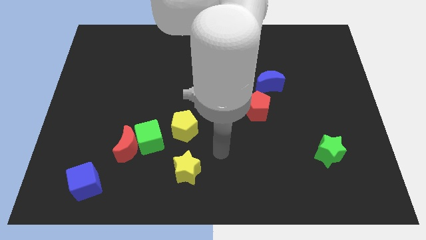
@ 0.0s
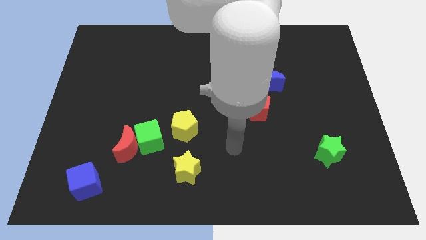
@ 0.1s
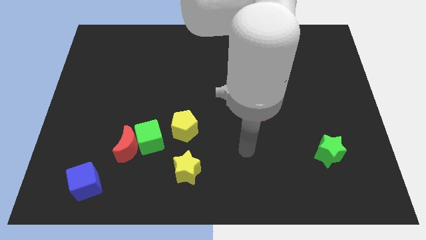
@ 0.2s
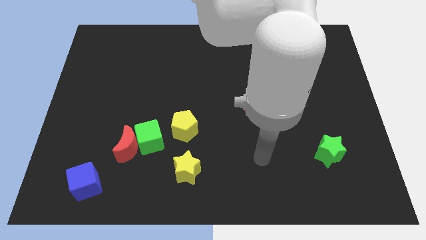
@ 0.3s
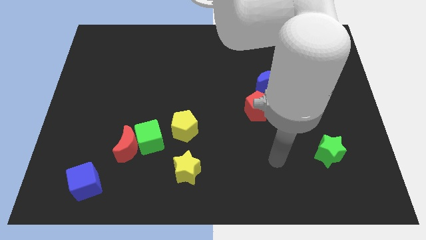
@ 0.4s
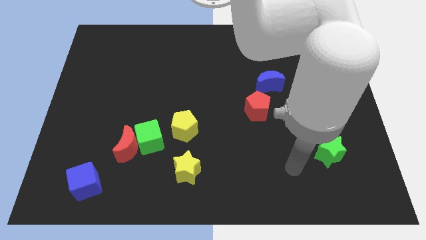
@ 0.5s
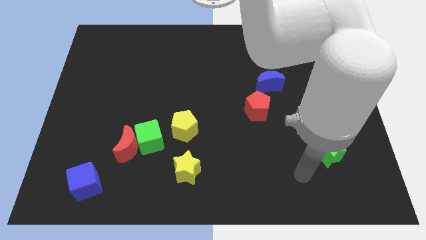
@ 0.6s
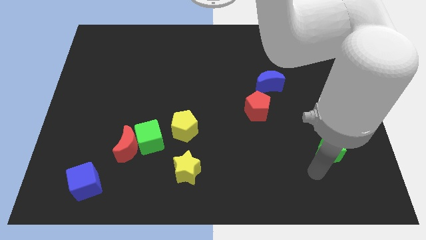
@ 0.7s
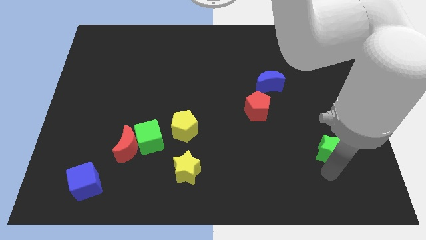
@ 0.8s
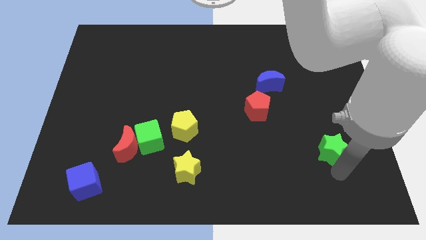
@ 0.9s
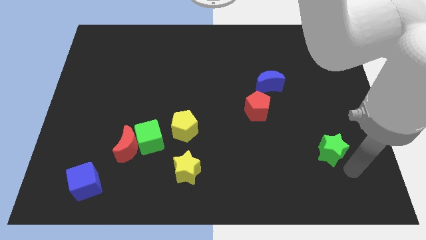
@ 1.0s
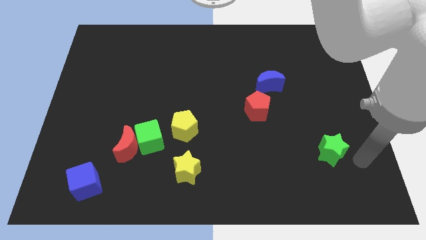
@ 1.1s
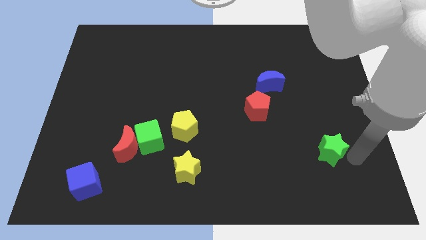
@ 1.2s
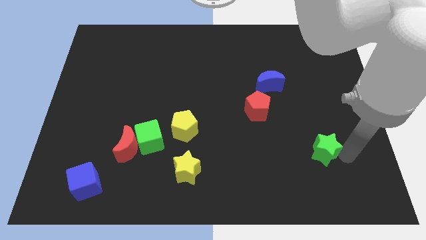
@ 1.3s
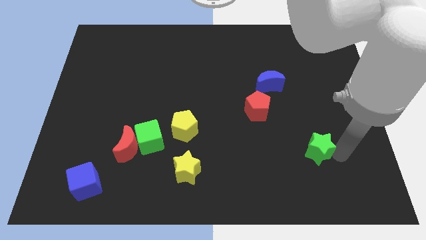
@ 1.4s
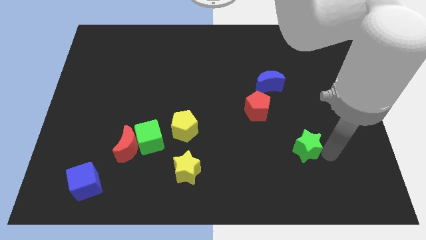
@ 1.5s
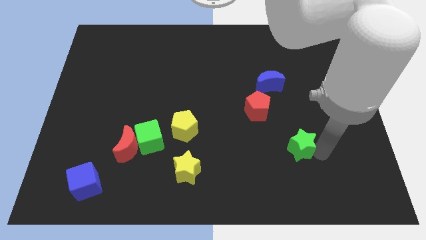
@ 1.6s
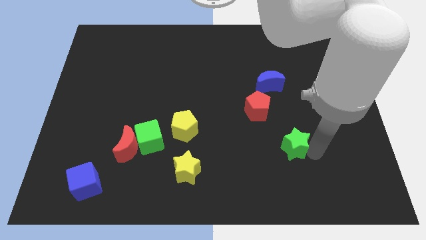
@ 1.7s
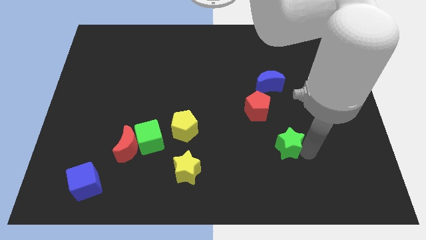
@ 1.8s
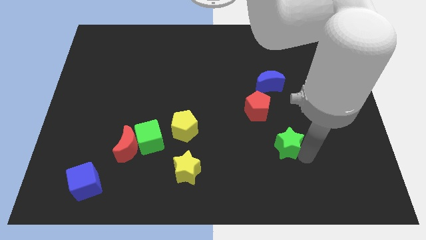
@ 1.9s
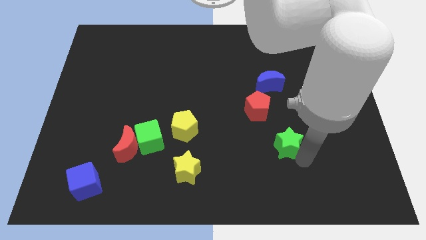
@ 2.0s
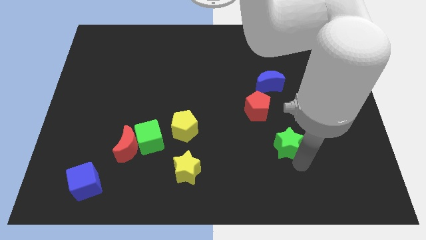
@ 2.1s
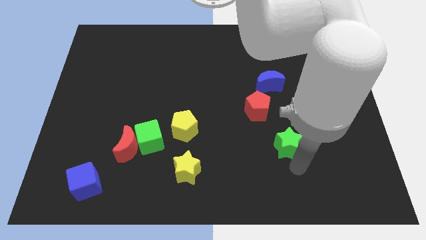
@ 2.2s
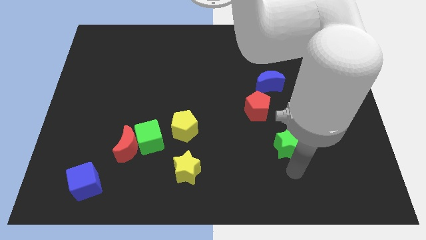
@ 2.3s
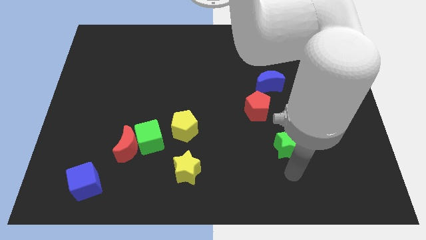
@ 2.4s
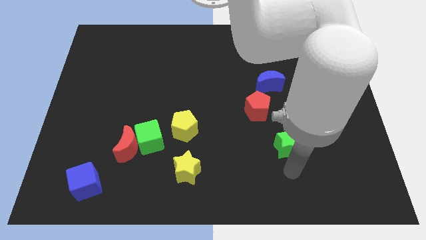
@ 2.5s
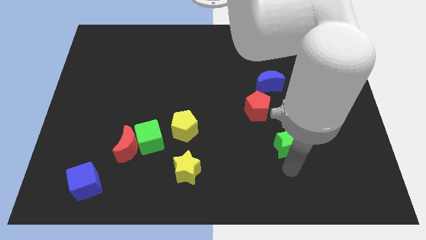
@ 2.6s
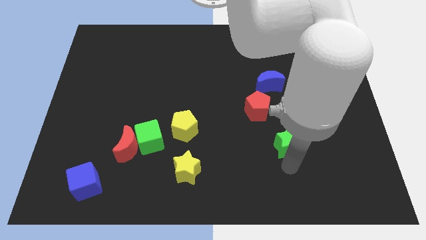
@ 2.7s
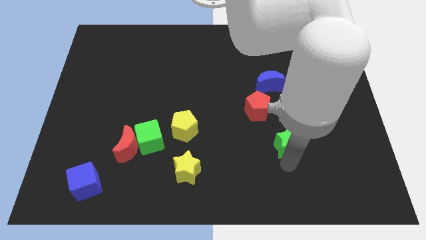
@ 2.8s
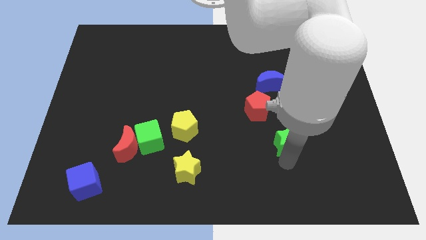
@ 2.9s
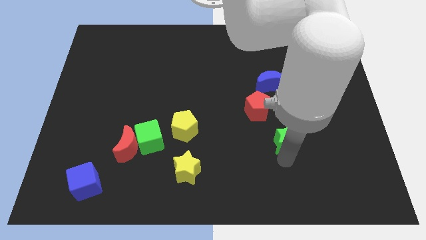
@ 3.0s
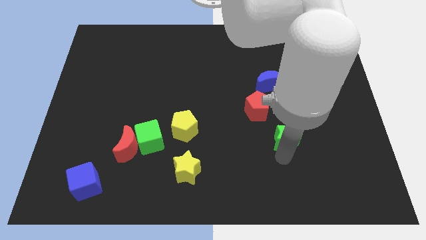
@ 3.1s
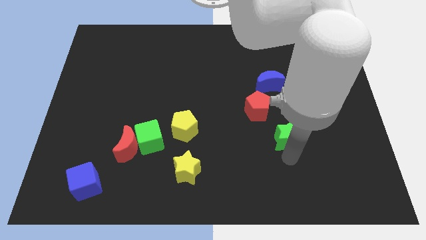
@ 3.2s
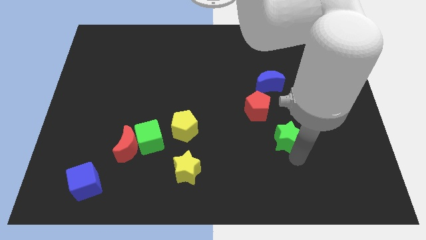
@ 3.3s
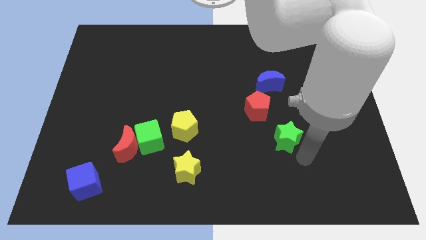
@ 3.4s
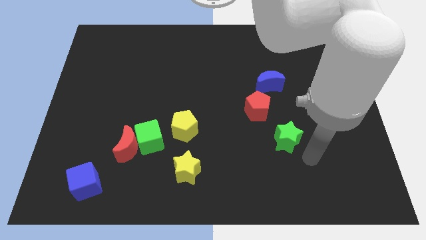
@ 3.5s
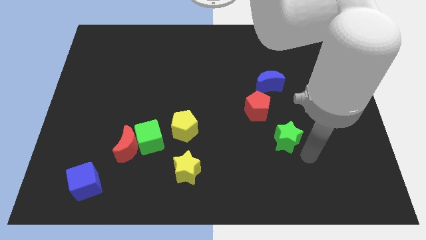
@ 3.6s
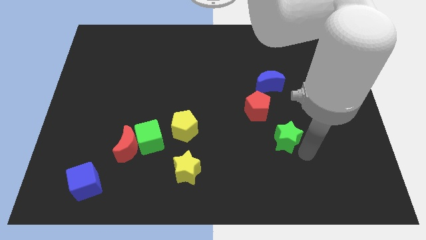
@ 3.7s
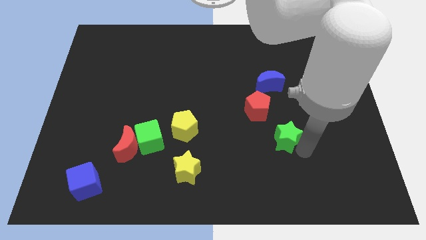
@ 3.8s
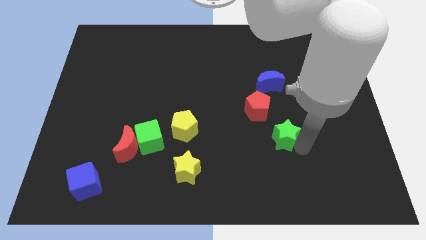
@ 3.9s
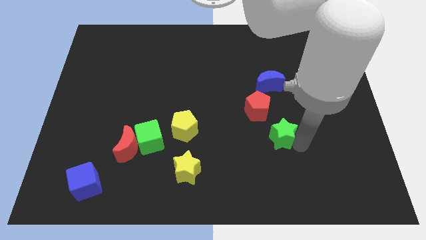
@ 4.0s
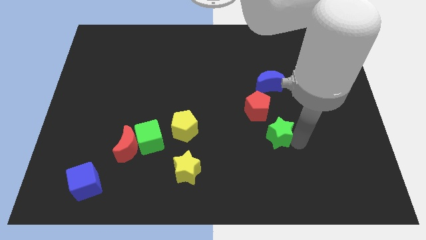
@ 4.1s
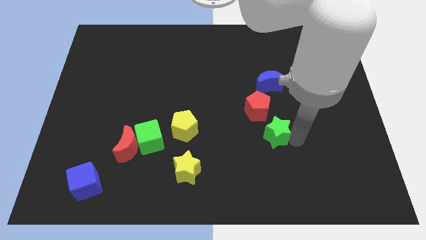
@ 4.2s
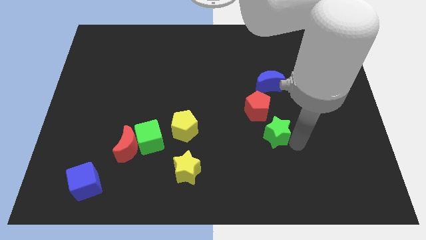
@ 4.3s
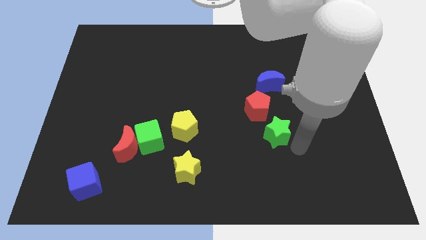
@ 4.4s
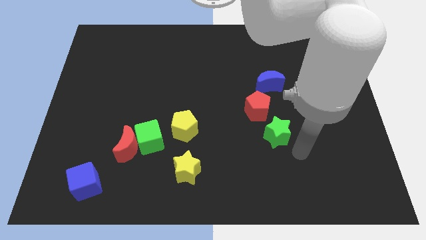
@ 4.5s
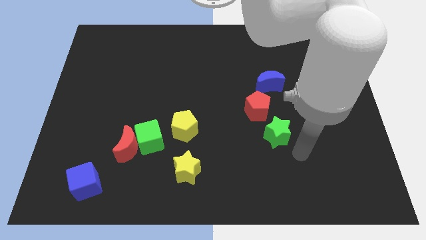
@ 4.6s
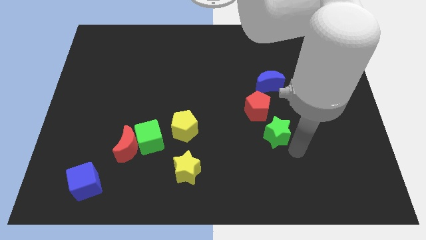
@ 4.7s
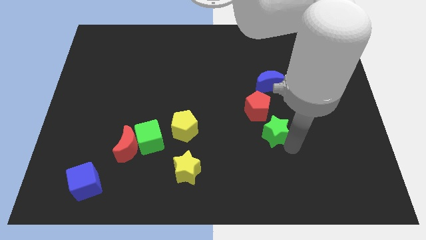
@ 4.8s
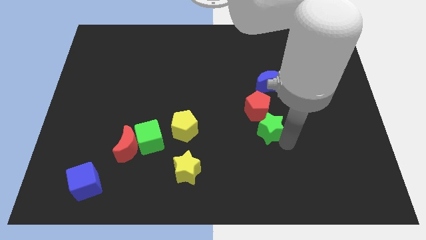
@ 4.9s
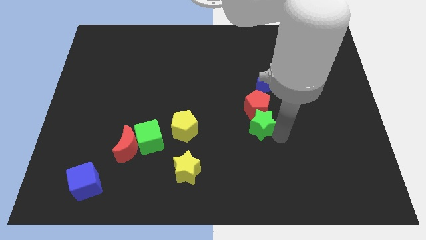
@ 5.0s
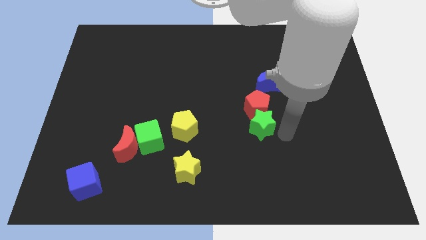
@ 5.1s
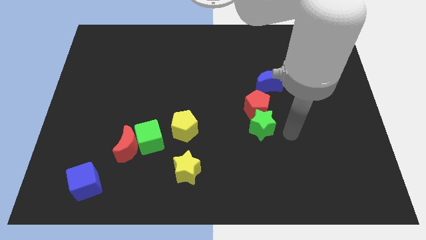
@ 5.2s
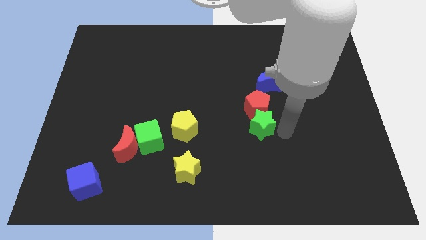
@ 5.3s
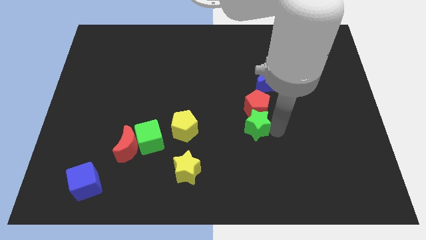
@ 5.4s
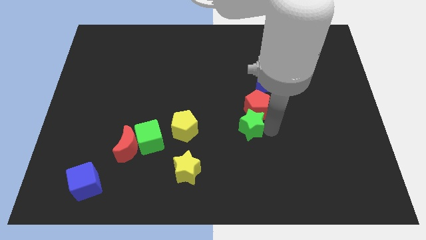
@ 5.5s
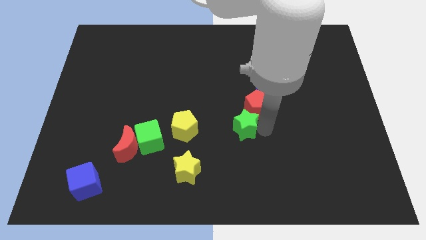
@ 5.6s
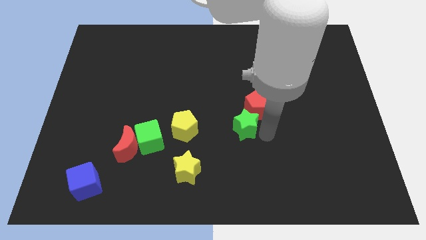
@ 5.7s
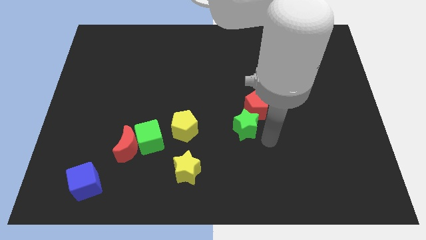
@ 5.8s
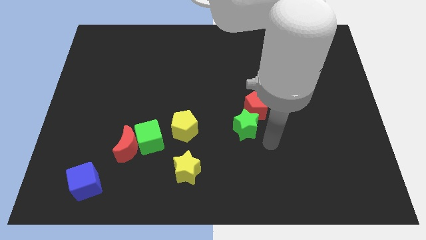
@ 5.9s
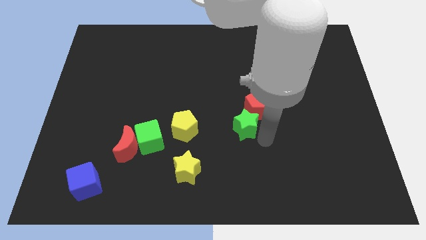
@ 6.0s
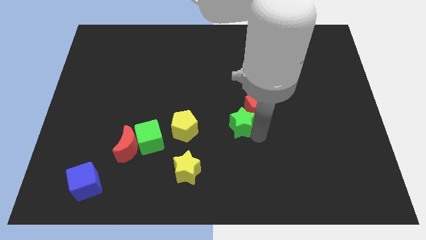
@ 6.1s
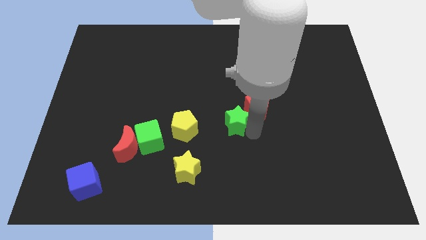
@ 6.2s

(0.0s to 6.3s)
push the green star just left of the red pentagon

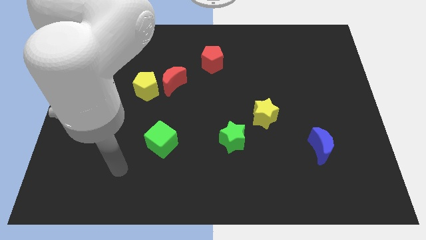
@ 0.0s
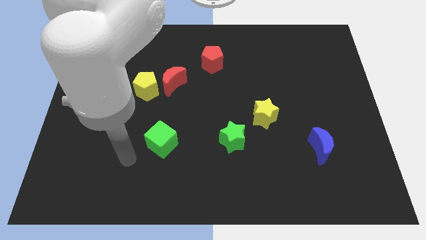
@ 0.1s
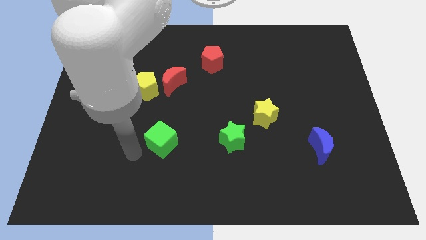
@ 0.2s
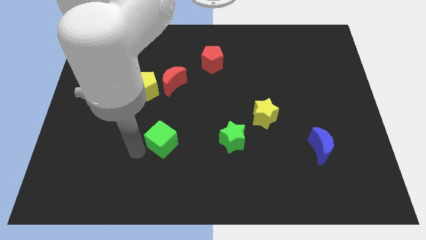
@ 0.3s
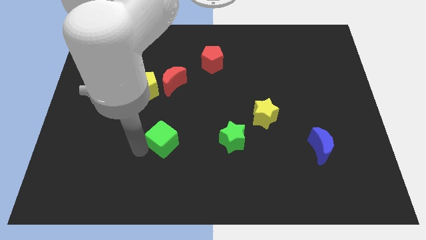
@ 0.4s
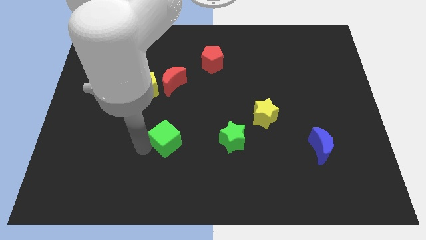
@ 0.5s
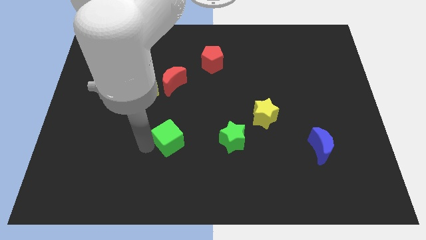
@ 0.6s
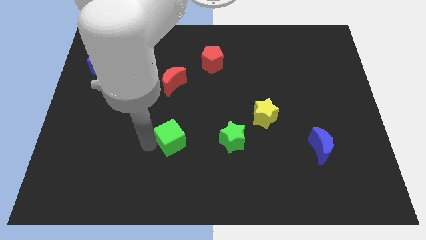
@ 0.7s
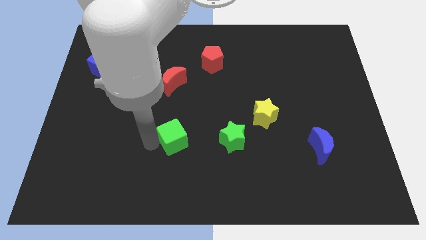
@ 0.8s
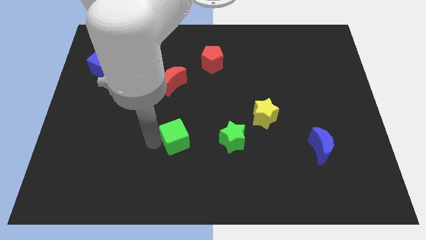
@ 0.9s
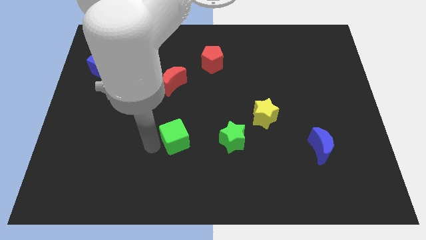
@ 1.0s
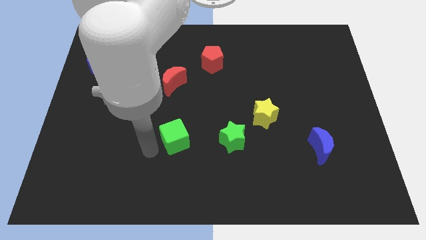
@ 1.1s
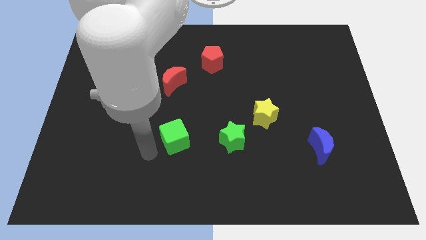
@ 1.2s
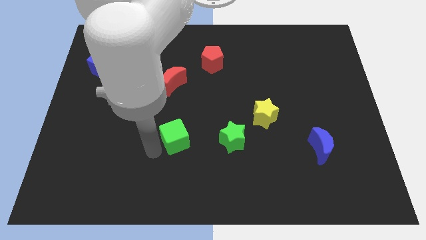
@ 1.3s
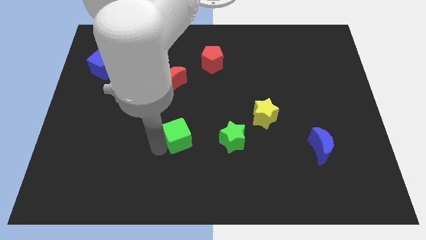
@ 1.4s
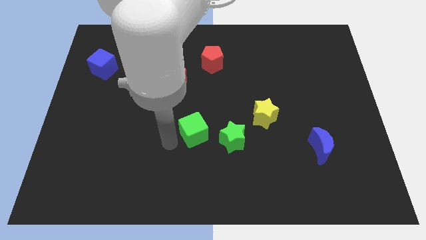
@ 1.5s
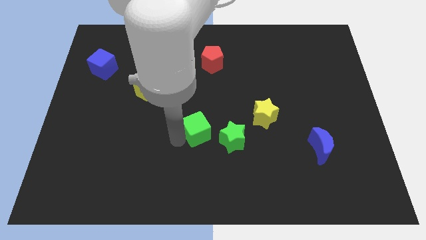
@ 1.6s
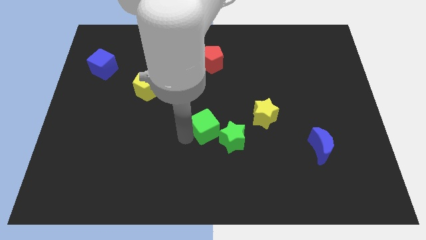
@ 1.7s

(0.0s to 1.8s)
slide the green cube to the left of the yellow star
